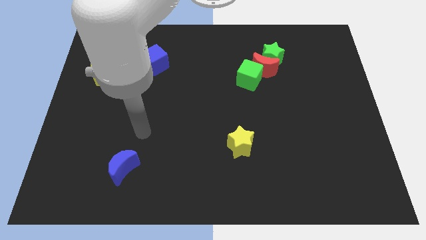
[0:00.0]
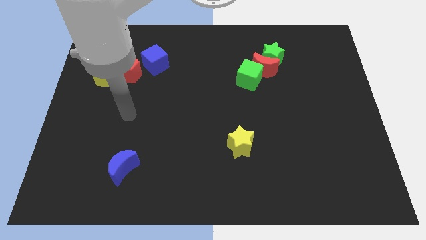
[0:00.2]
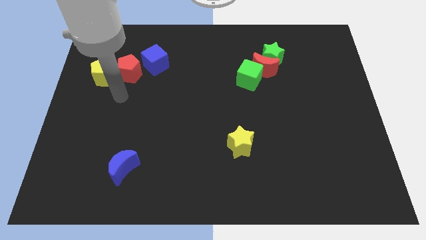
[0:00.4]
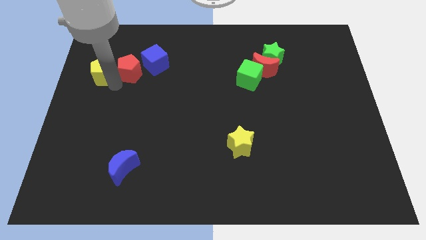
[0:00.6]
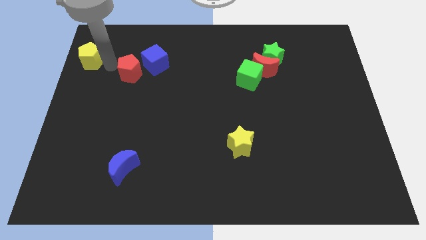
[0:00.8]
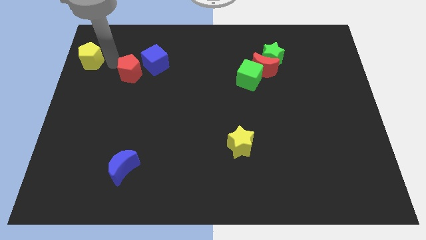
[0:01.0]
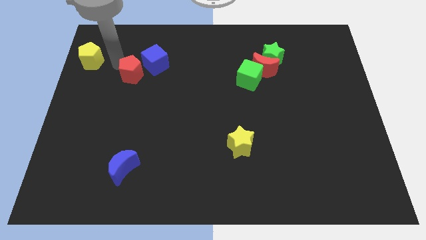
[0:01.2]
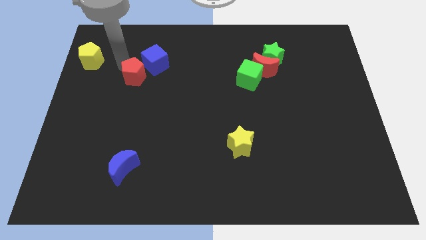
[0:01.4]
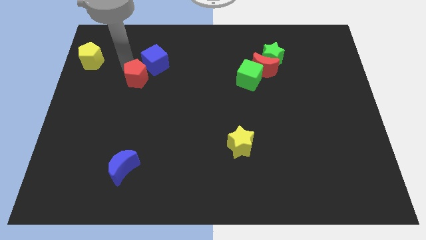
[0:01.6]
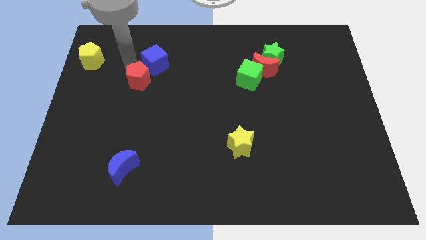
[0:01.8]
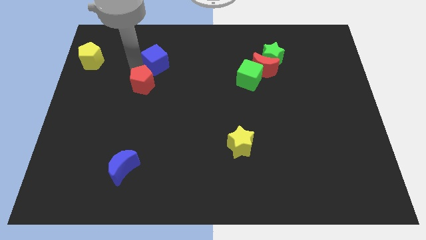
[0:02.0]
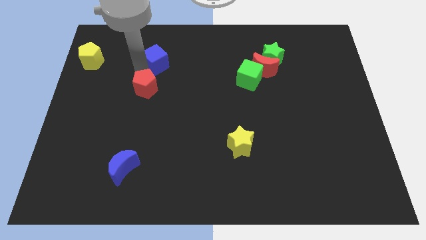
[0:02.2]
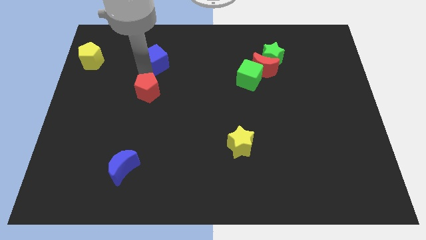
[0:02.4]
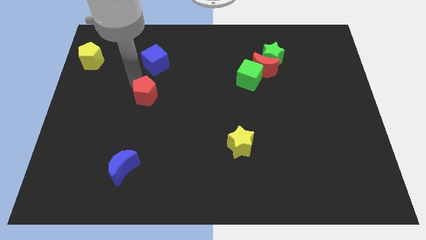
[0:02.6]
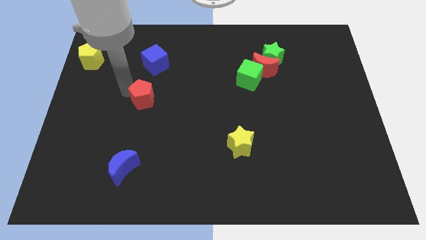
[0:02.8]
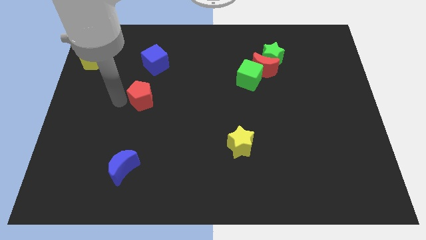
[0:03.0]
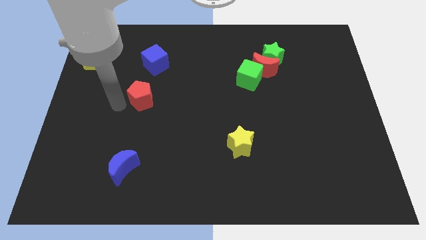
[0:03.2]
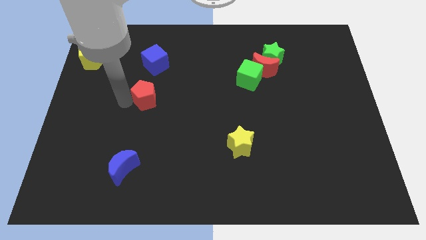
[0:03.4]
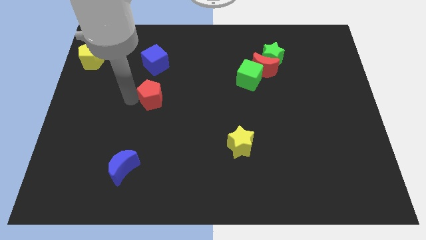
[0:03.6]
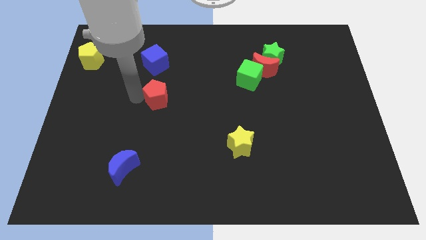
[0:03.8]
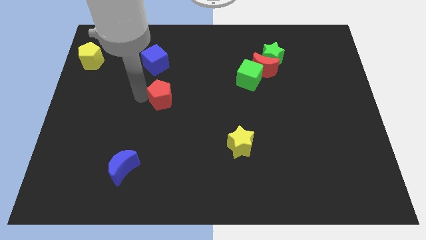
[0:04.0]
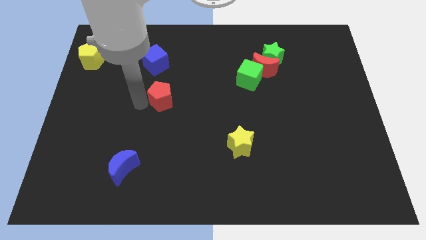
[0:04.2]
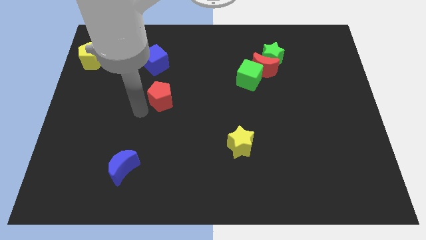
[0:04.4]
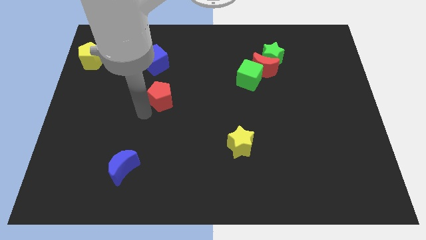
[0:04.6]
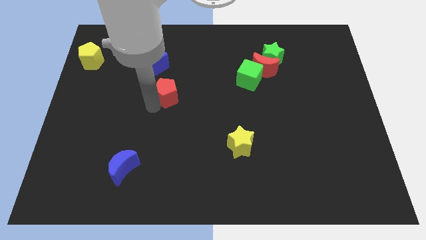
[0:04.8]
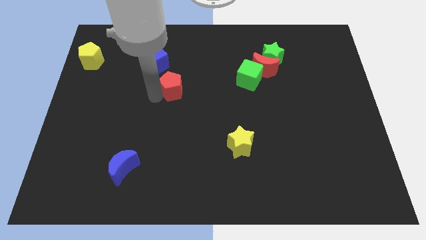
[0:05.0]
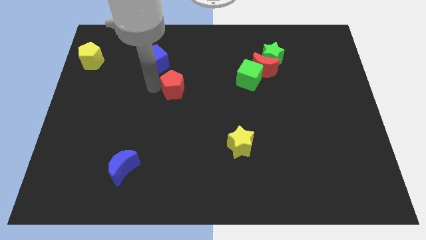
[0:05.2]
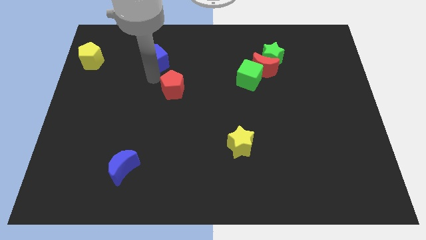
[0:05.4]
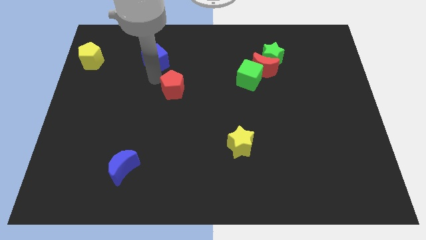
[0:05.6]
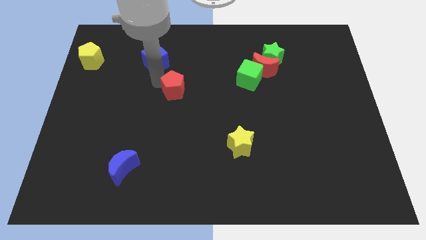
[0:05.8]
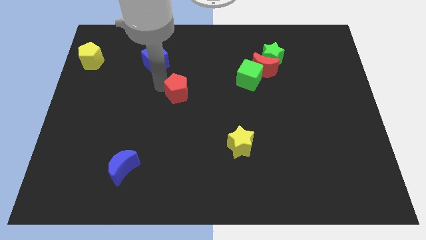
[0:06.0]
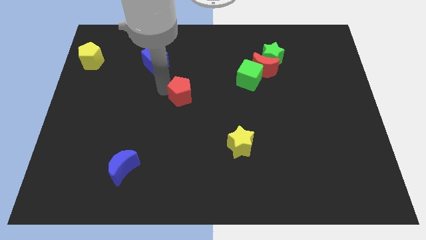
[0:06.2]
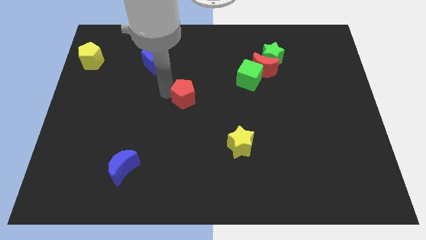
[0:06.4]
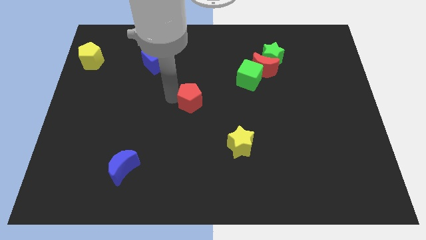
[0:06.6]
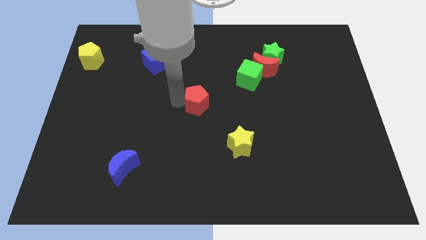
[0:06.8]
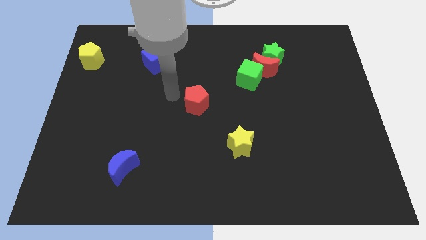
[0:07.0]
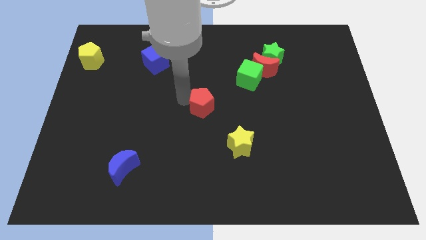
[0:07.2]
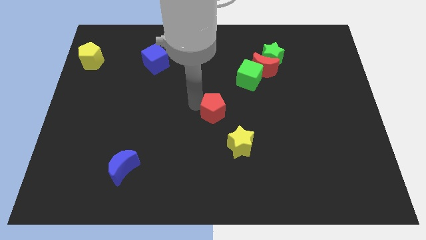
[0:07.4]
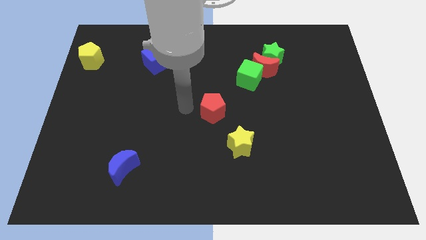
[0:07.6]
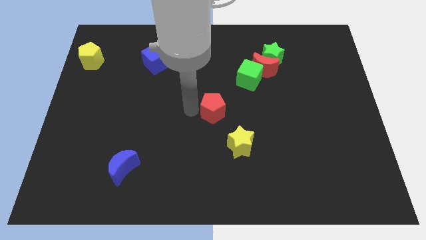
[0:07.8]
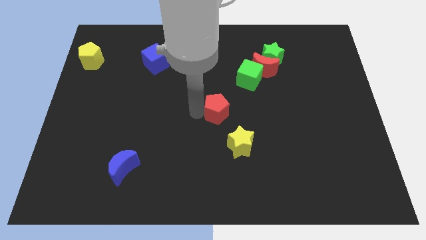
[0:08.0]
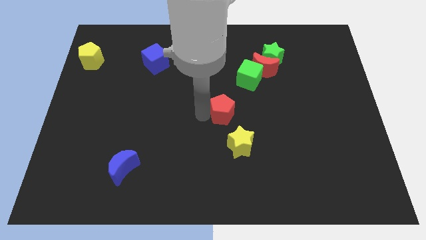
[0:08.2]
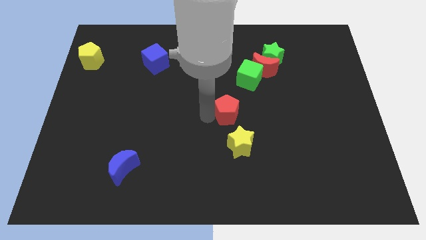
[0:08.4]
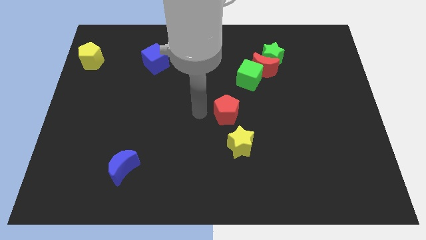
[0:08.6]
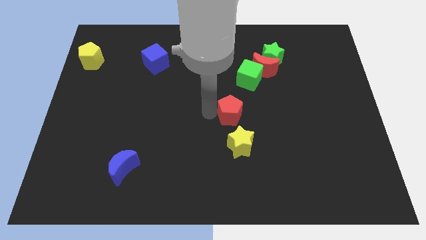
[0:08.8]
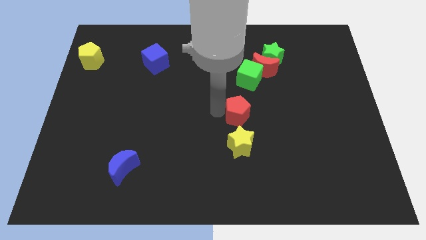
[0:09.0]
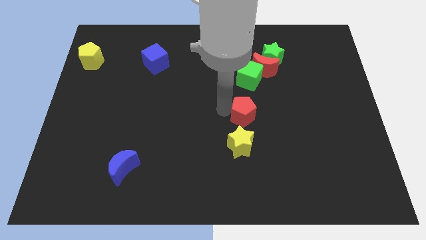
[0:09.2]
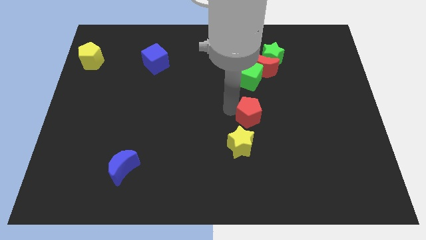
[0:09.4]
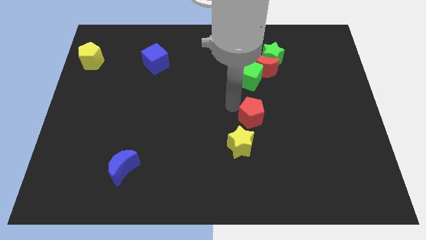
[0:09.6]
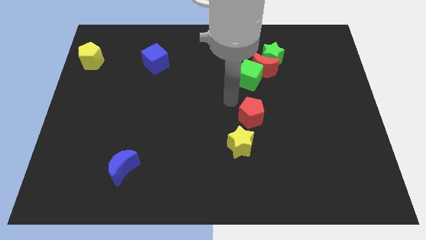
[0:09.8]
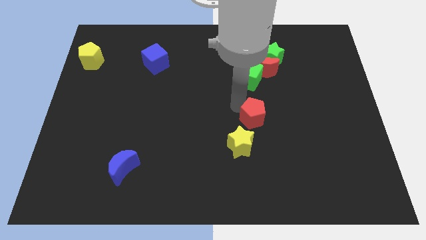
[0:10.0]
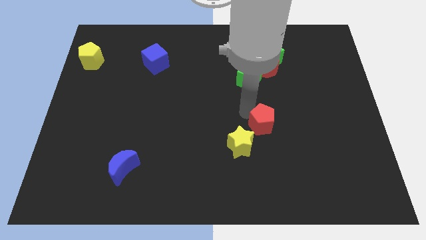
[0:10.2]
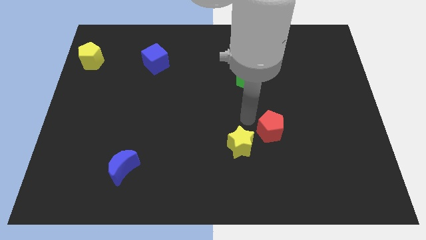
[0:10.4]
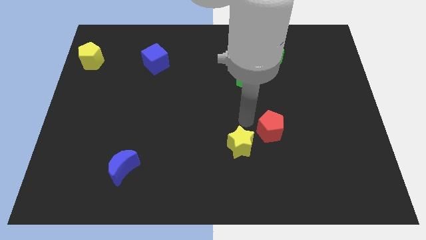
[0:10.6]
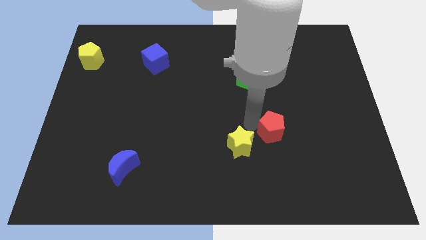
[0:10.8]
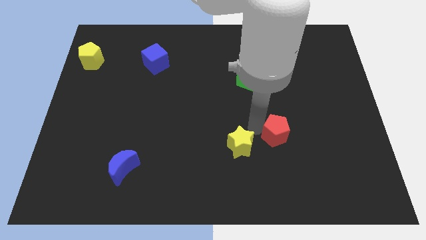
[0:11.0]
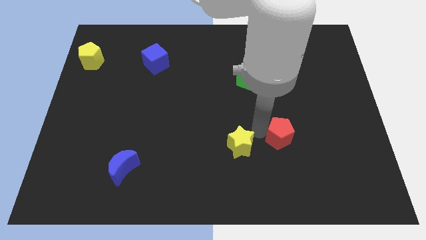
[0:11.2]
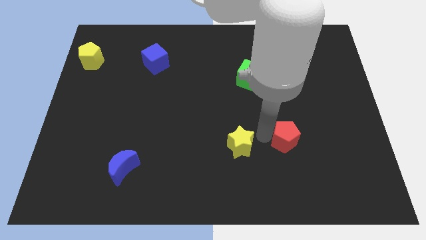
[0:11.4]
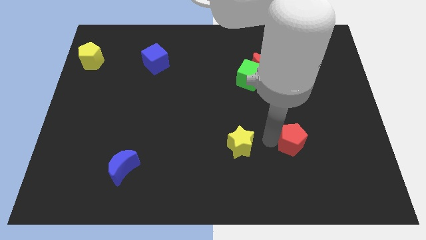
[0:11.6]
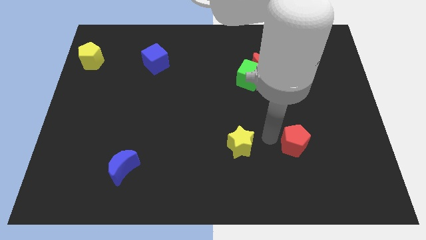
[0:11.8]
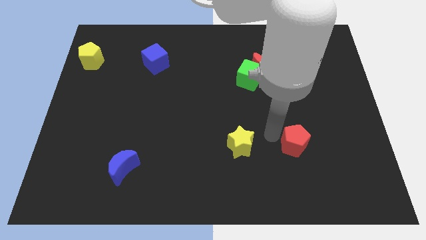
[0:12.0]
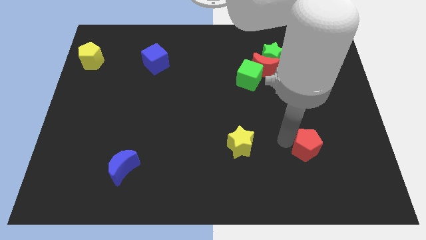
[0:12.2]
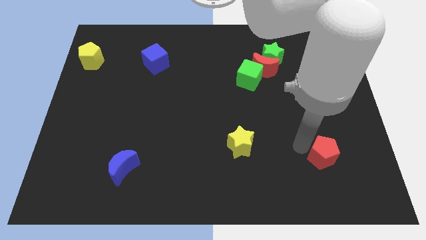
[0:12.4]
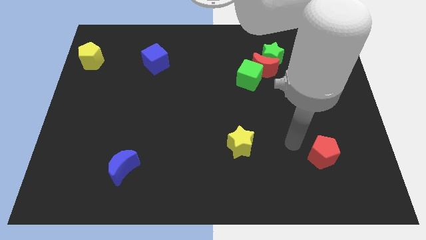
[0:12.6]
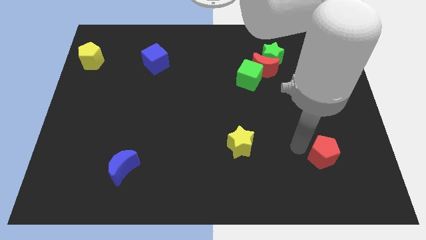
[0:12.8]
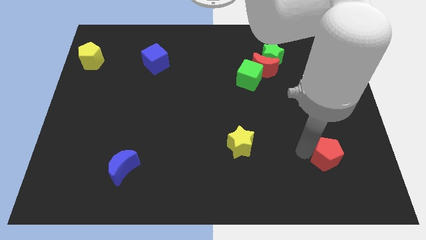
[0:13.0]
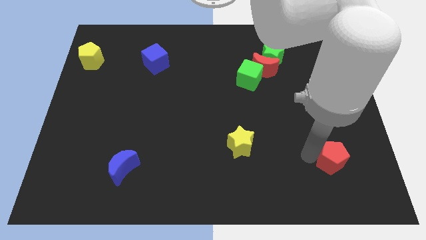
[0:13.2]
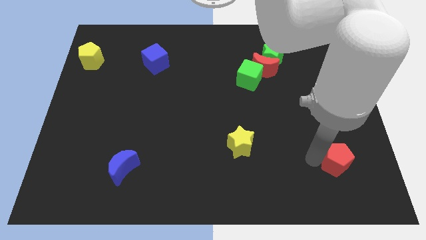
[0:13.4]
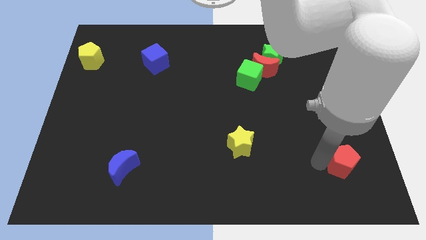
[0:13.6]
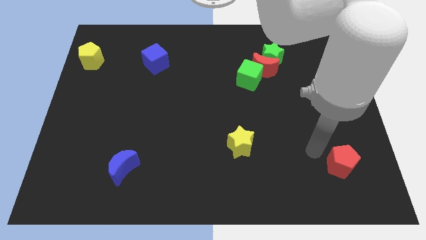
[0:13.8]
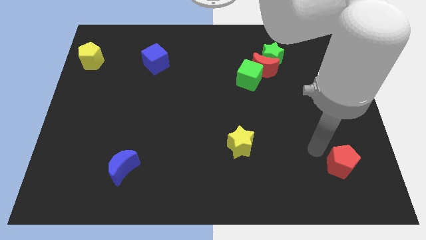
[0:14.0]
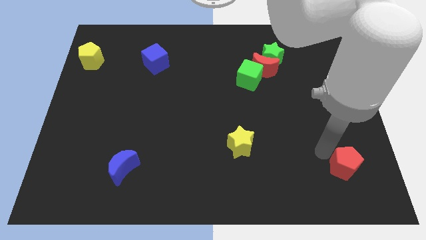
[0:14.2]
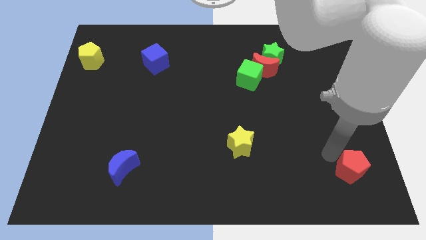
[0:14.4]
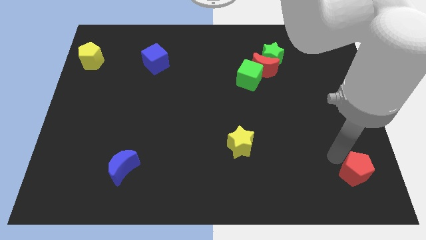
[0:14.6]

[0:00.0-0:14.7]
put the red pentagon to the bottom right corner
